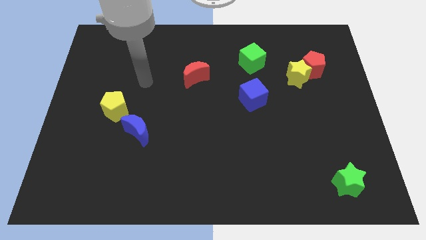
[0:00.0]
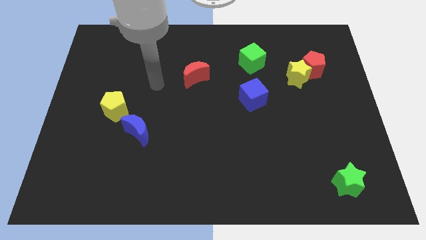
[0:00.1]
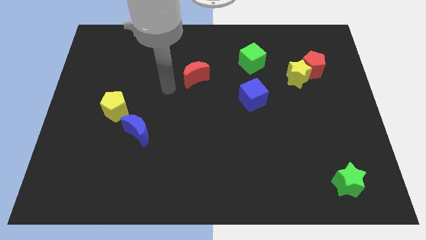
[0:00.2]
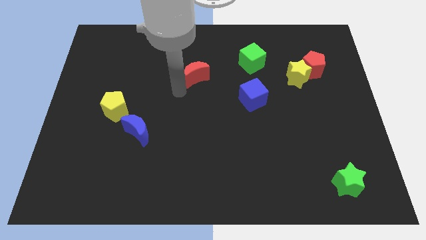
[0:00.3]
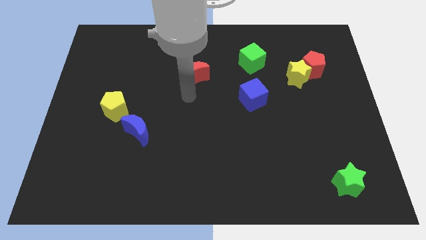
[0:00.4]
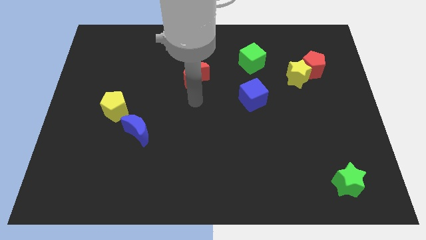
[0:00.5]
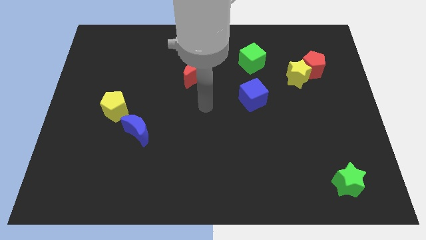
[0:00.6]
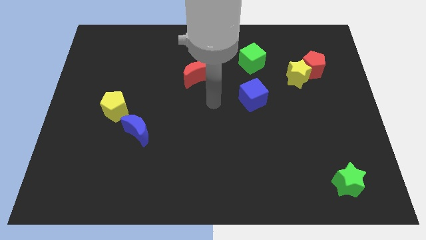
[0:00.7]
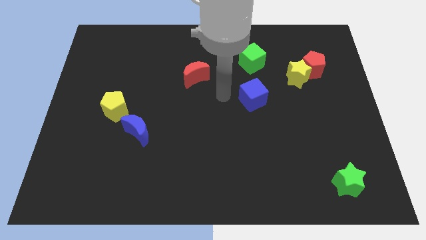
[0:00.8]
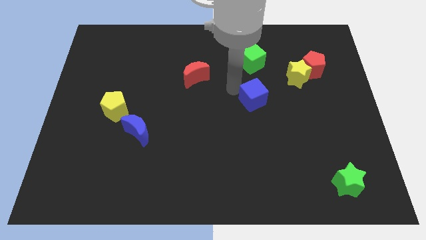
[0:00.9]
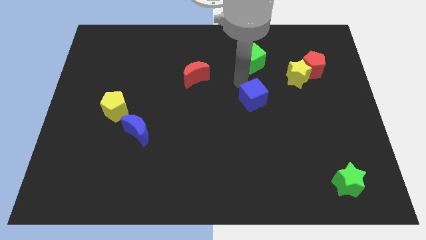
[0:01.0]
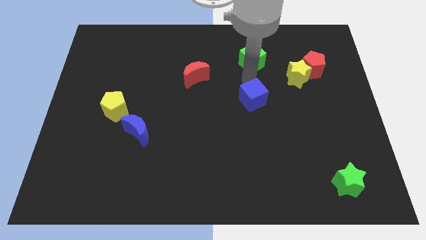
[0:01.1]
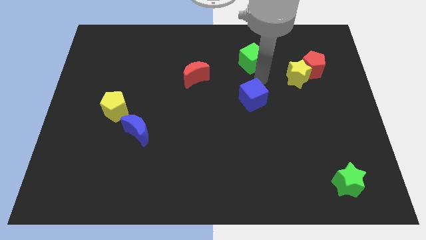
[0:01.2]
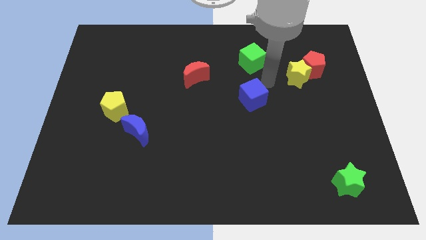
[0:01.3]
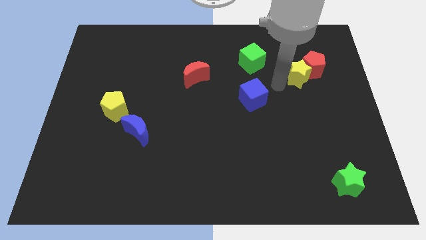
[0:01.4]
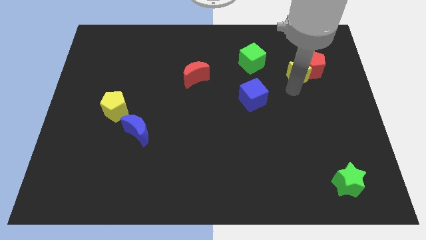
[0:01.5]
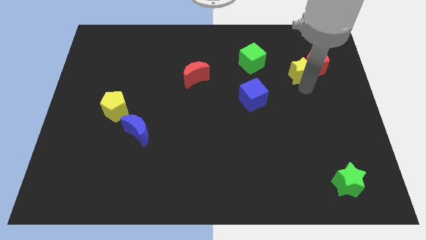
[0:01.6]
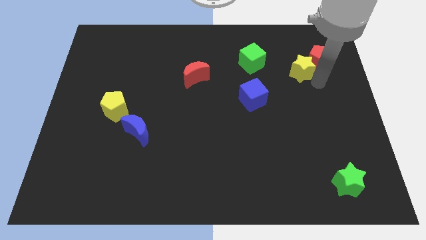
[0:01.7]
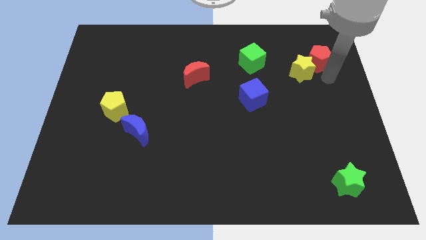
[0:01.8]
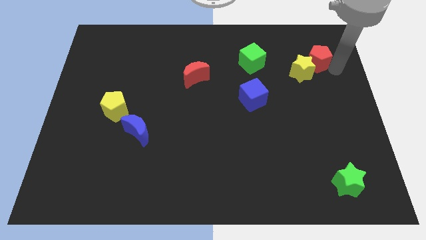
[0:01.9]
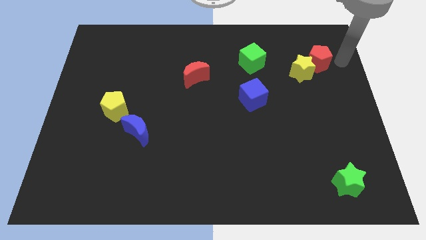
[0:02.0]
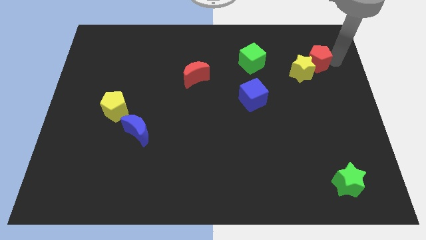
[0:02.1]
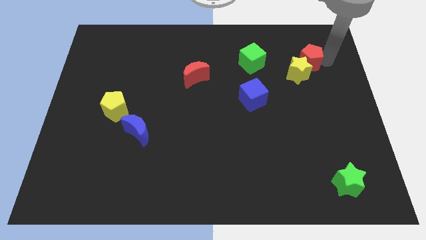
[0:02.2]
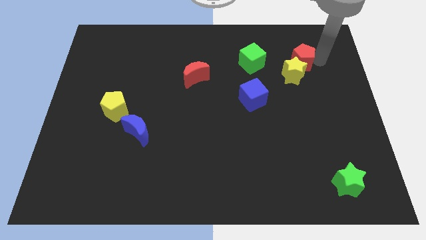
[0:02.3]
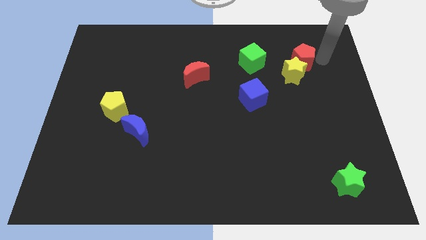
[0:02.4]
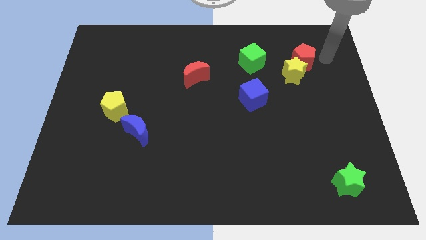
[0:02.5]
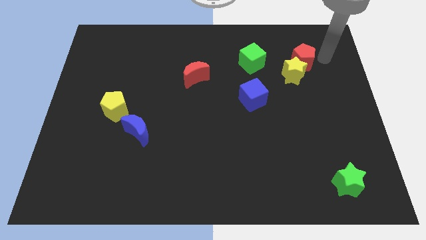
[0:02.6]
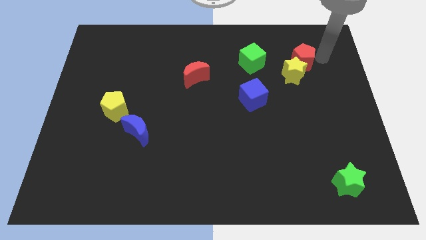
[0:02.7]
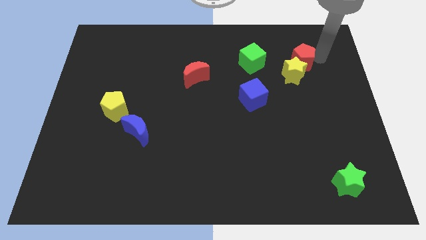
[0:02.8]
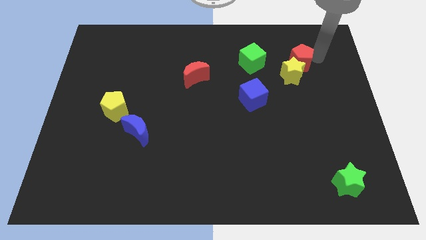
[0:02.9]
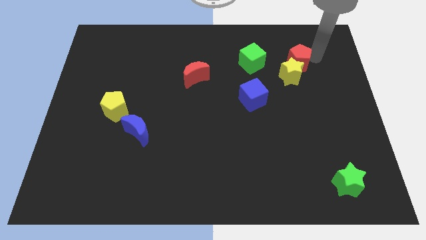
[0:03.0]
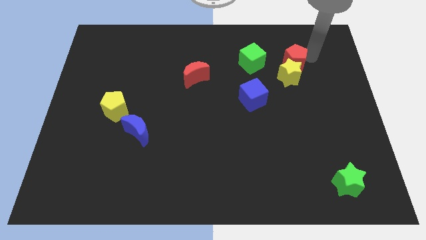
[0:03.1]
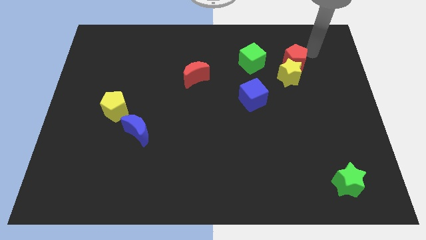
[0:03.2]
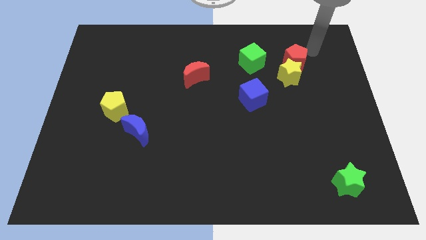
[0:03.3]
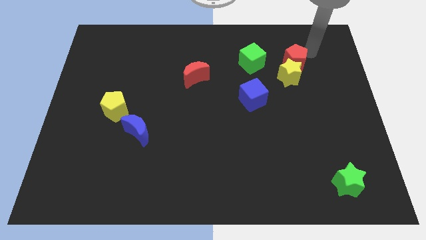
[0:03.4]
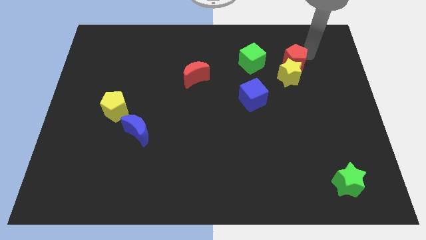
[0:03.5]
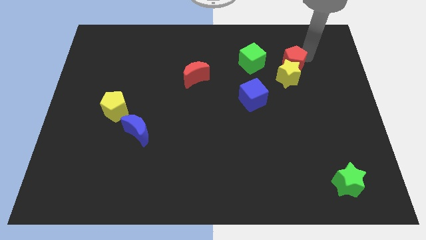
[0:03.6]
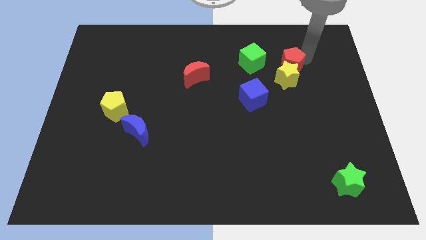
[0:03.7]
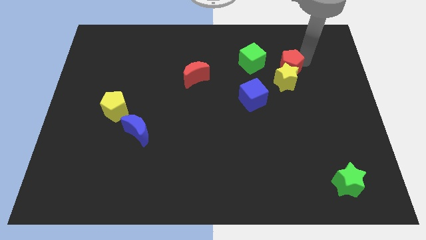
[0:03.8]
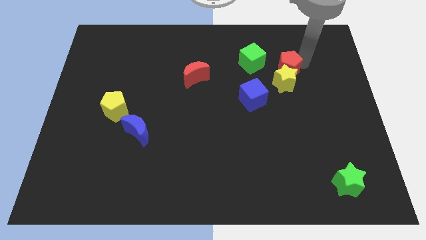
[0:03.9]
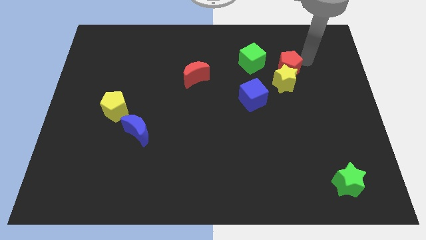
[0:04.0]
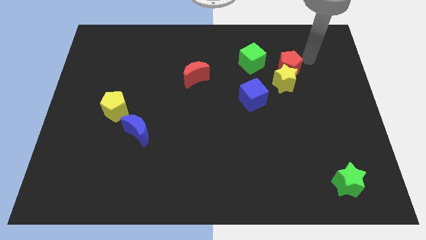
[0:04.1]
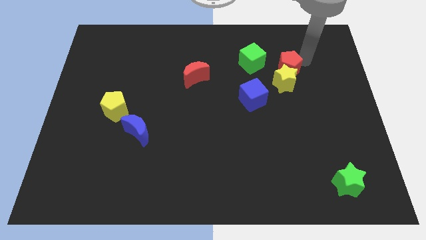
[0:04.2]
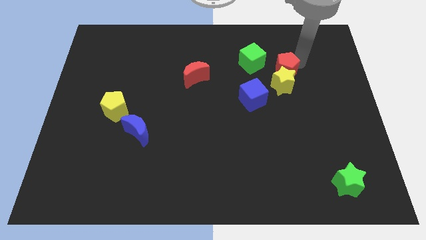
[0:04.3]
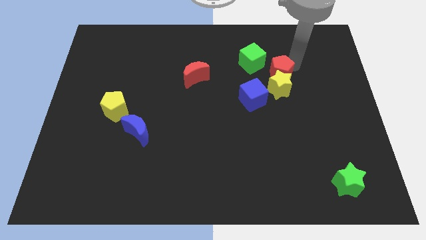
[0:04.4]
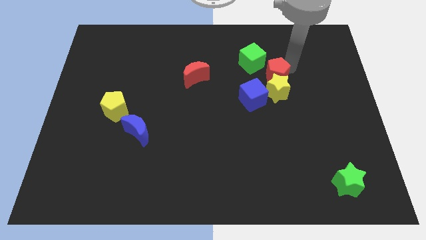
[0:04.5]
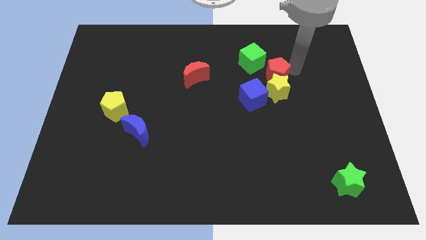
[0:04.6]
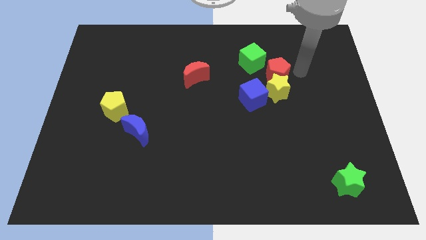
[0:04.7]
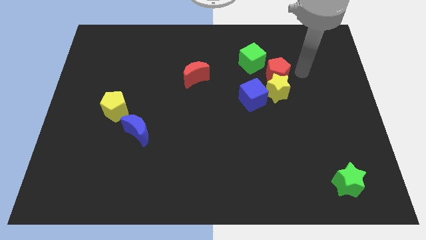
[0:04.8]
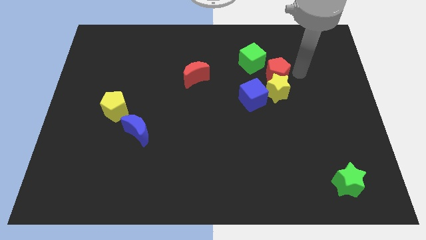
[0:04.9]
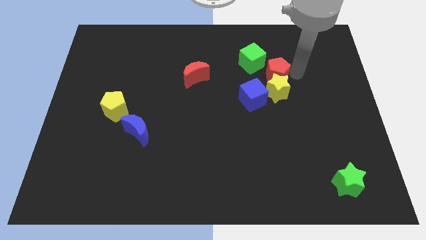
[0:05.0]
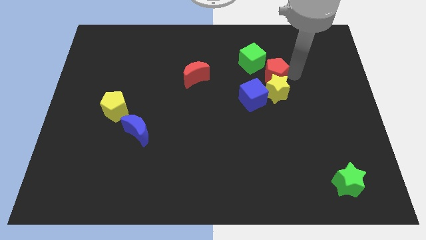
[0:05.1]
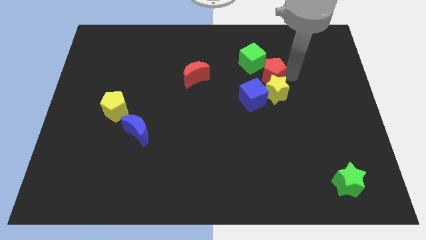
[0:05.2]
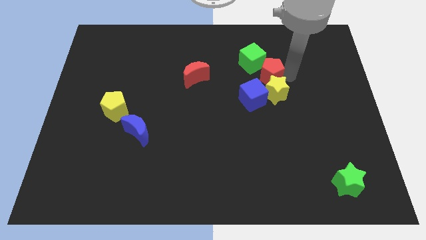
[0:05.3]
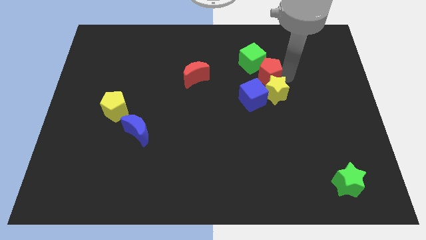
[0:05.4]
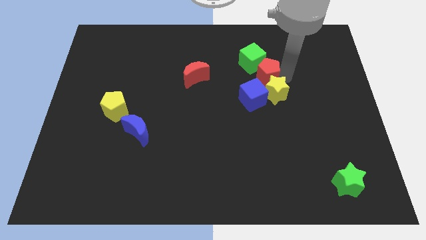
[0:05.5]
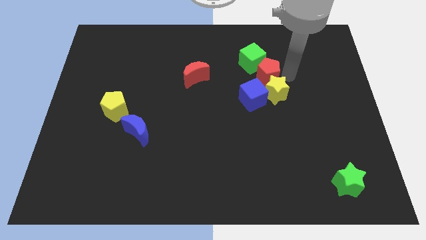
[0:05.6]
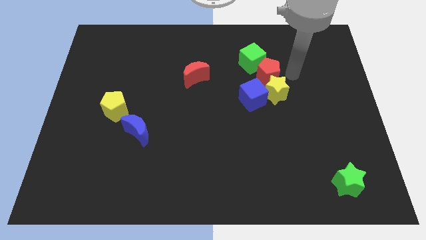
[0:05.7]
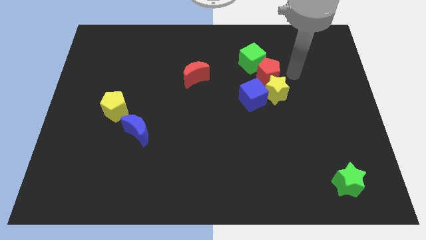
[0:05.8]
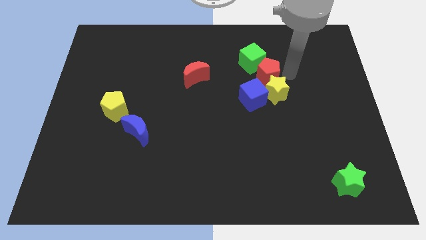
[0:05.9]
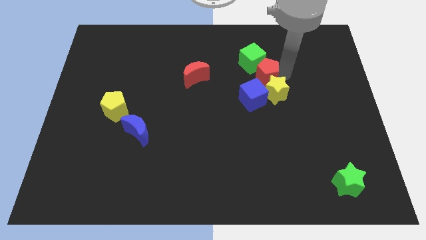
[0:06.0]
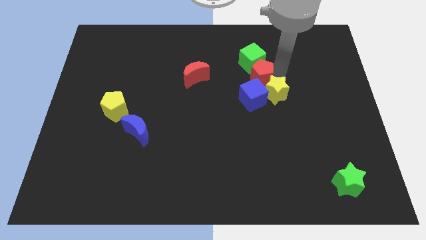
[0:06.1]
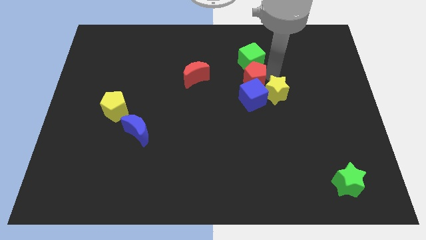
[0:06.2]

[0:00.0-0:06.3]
put the red pentagon to the right side of the red moon
